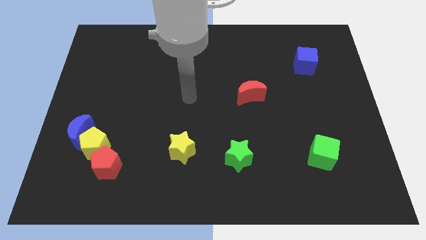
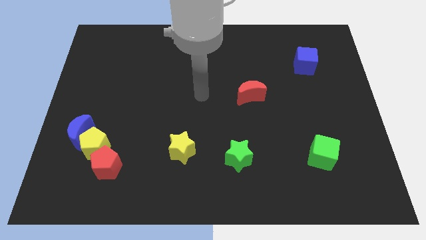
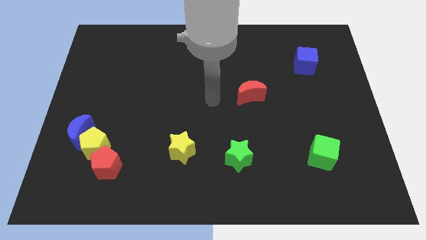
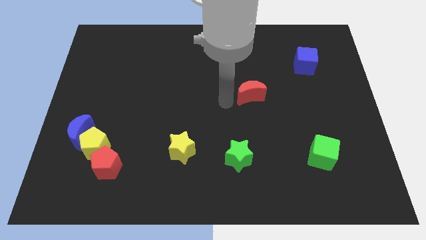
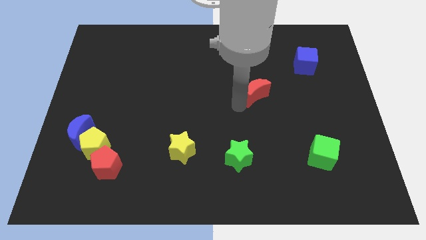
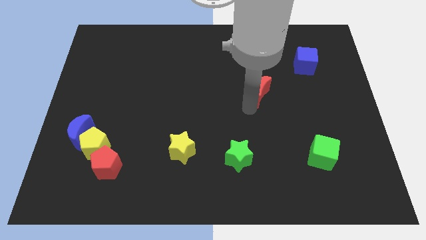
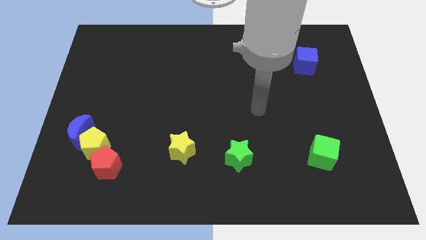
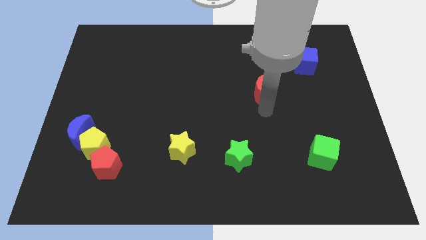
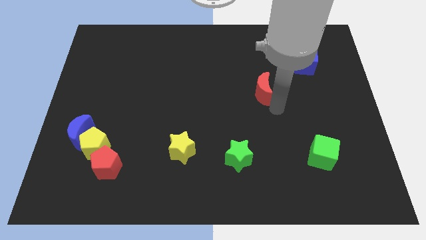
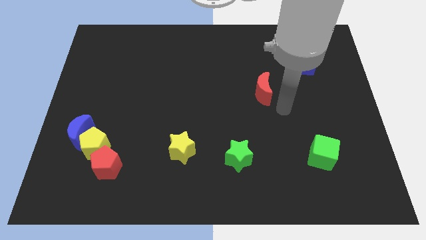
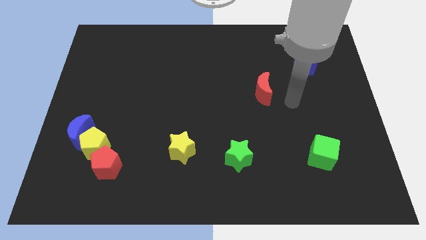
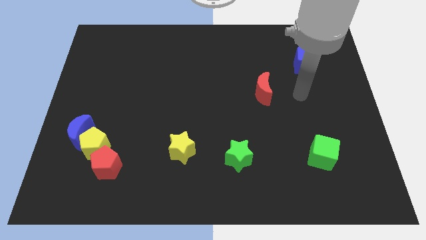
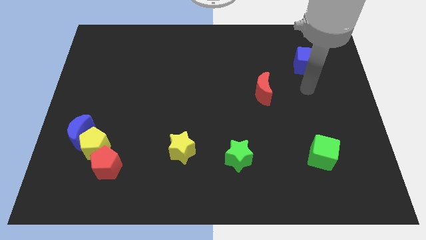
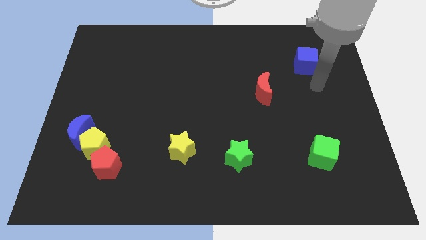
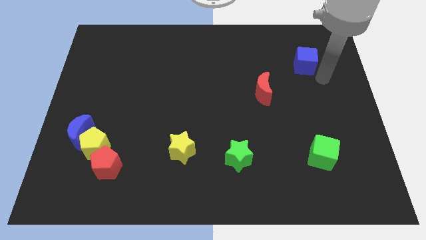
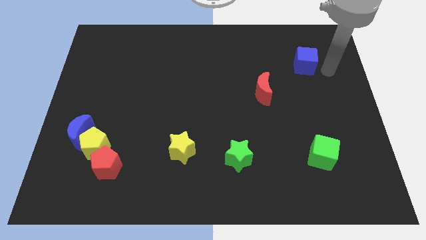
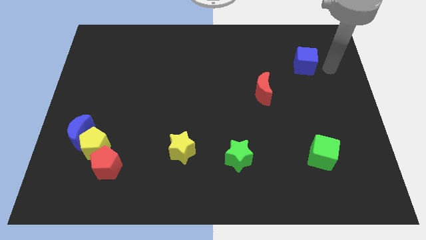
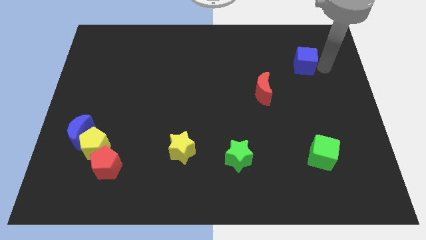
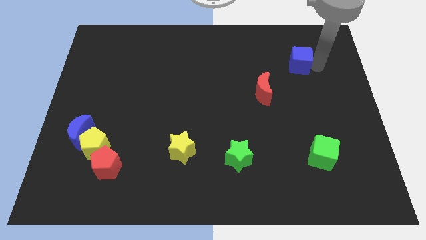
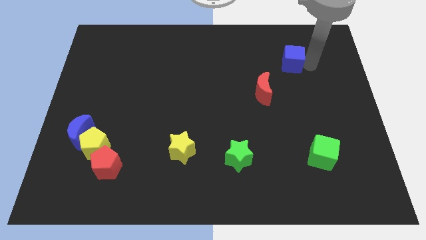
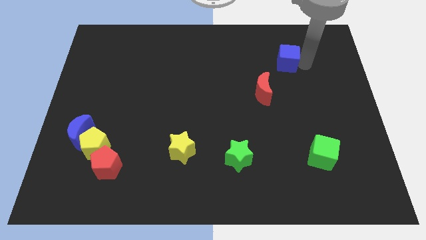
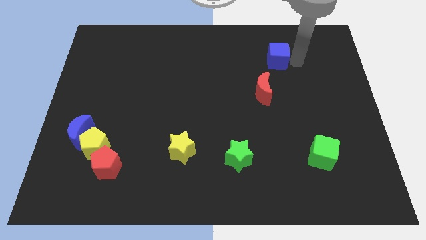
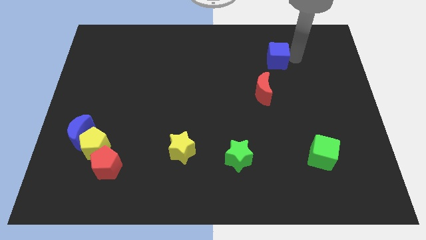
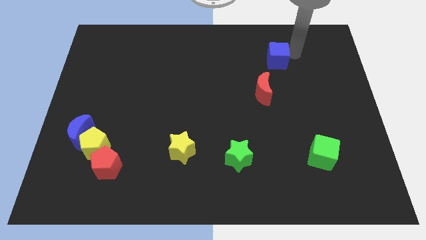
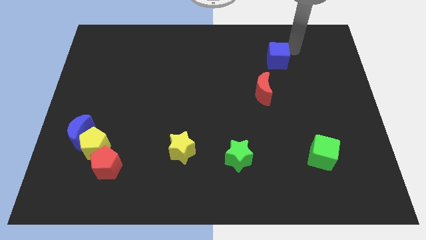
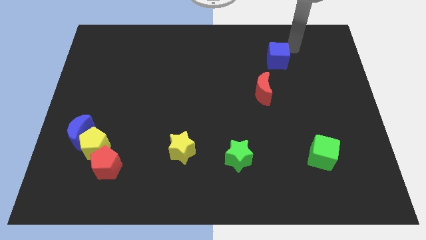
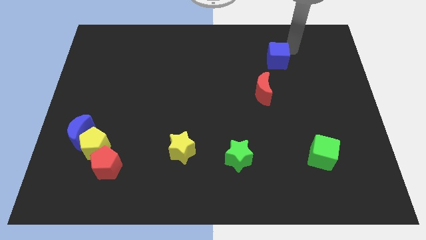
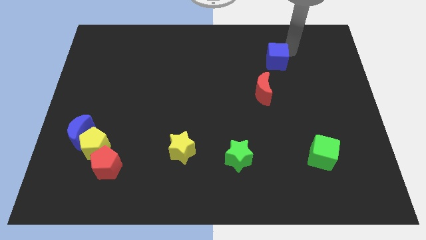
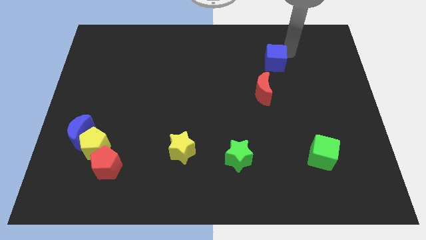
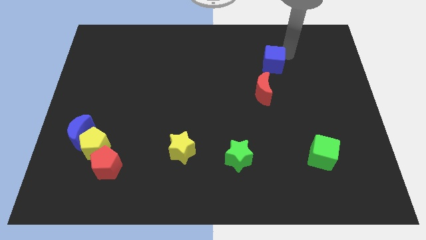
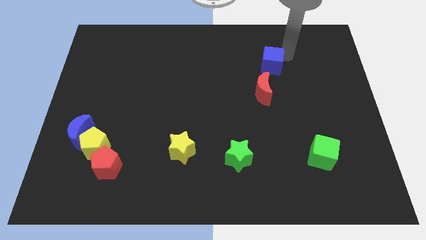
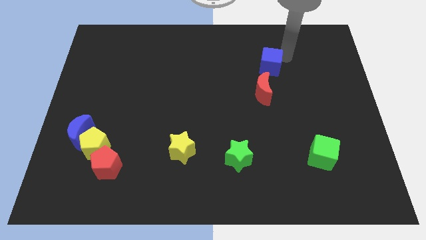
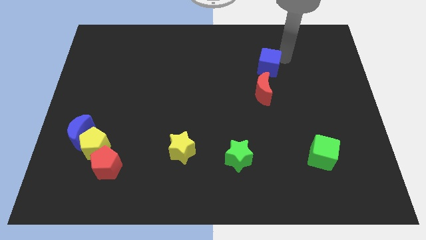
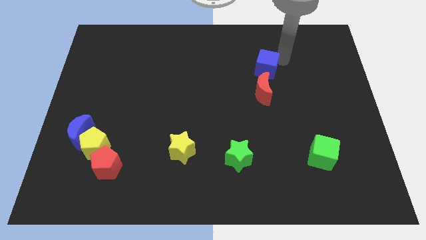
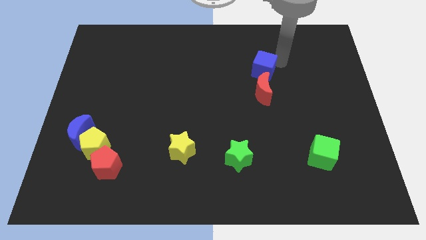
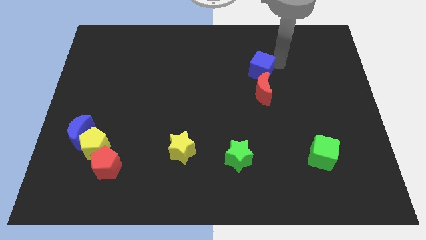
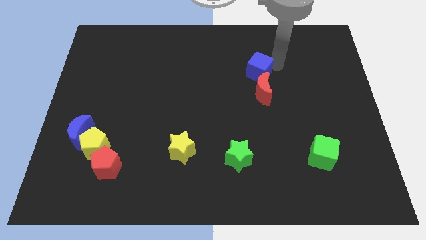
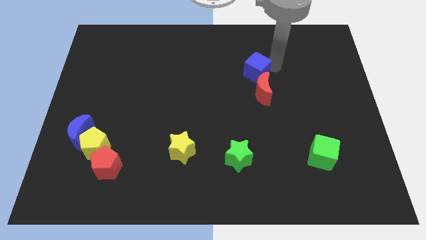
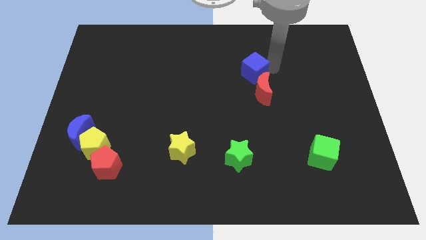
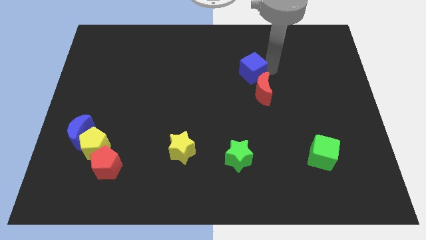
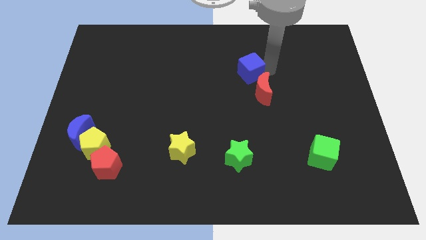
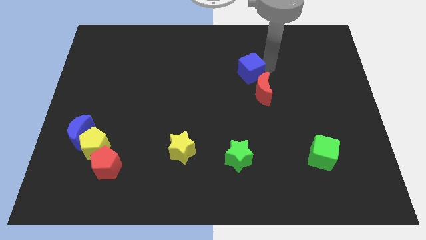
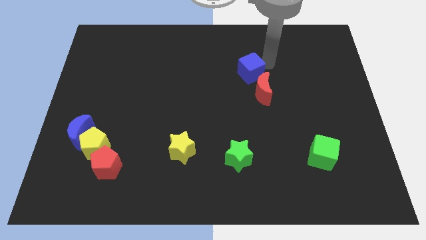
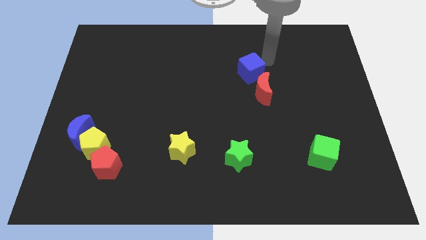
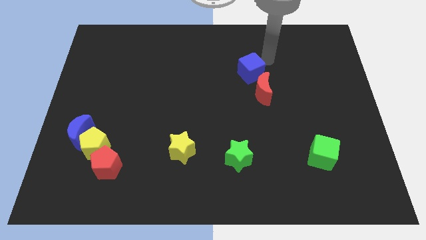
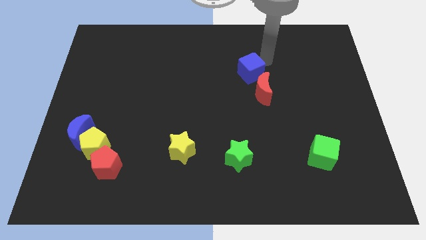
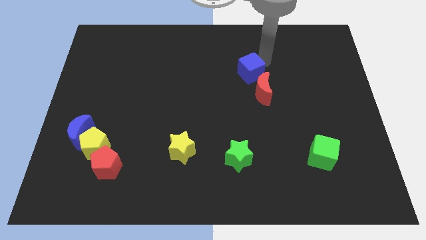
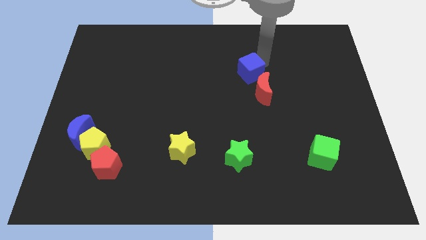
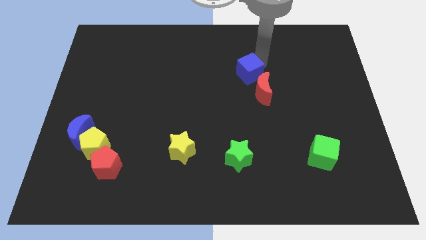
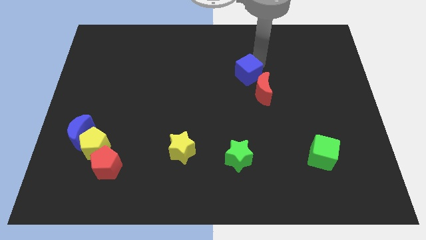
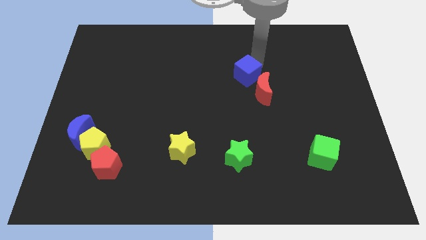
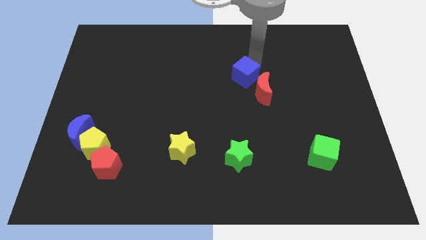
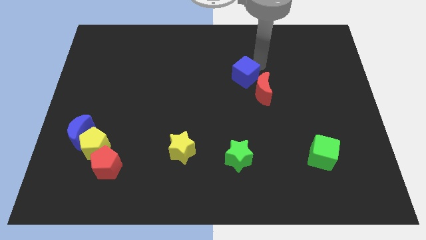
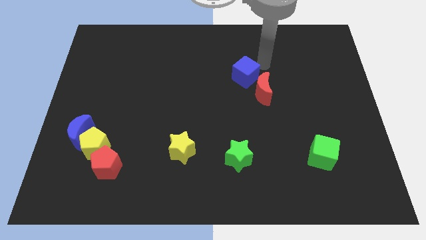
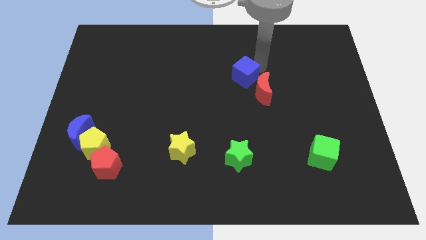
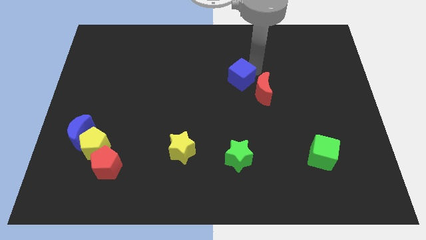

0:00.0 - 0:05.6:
move the blue cube to the left side of the red moon
